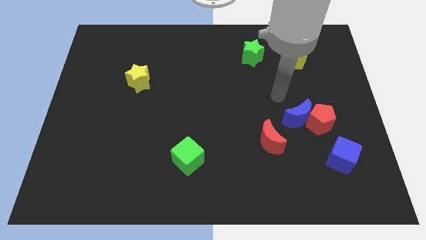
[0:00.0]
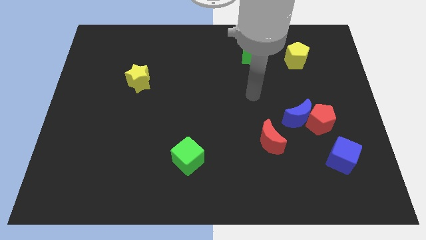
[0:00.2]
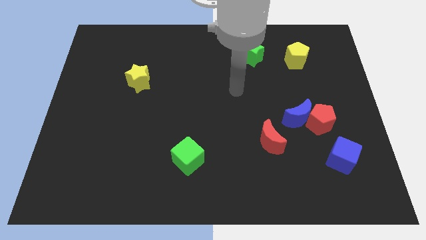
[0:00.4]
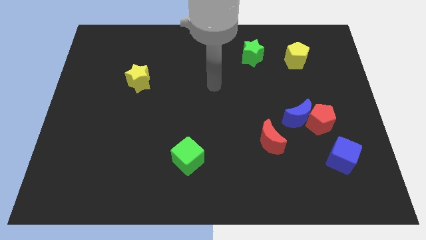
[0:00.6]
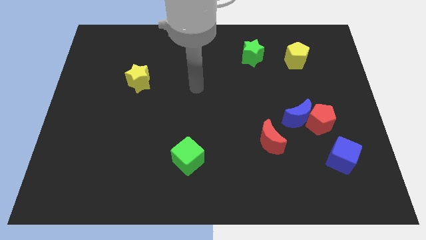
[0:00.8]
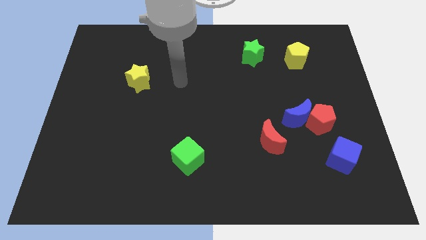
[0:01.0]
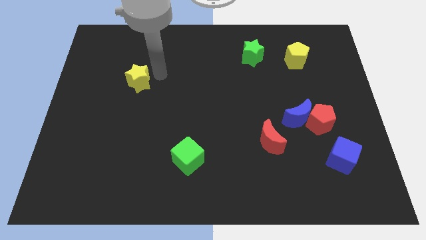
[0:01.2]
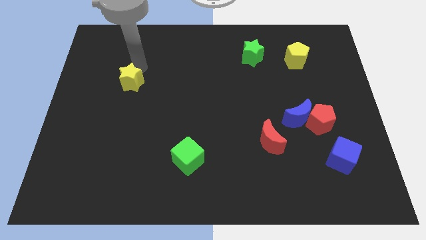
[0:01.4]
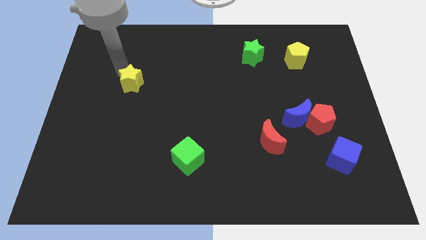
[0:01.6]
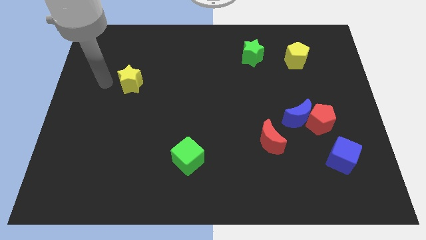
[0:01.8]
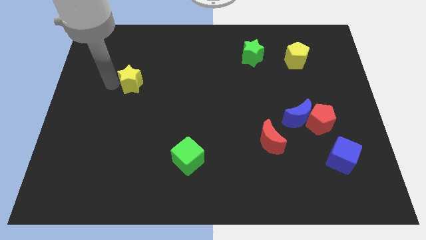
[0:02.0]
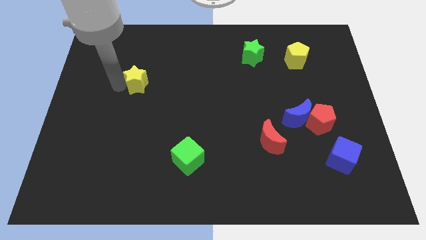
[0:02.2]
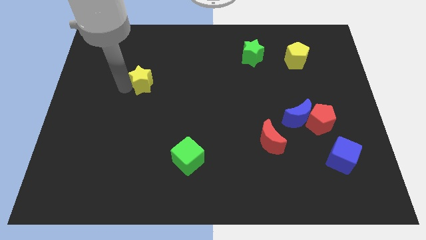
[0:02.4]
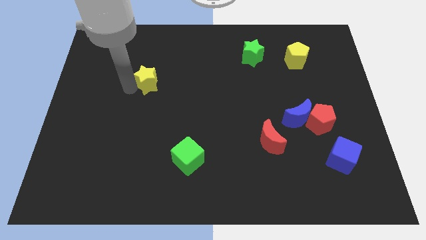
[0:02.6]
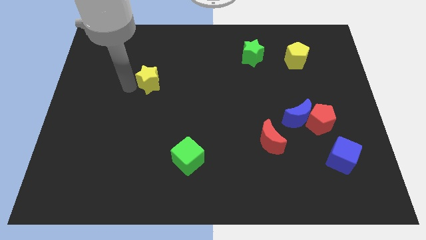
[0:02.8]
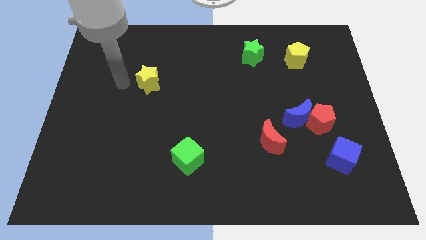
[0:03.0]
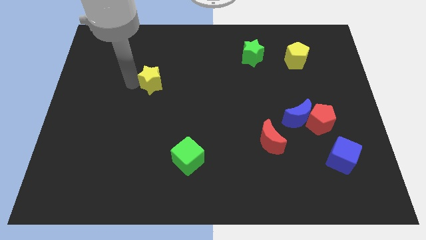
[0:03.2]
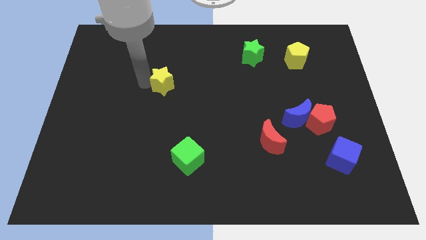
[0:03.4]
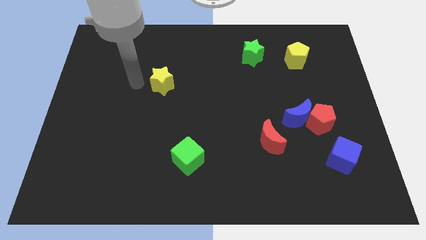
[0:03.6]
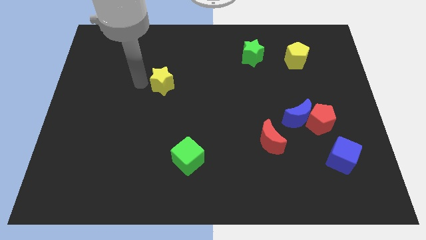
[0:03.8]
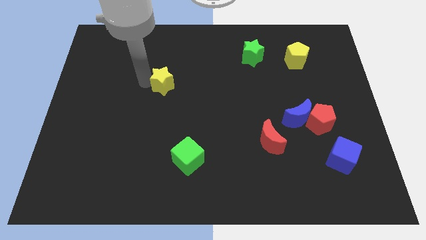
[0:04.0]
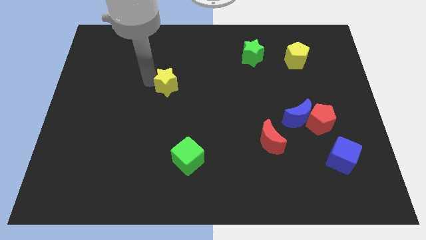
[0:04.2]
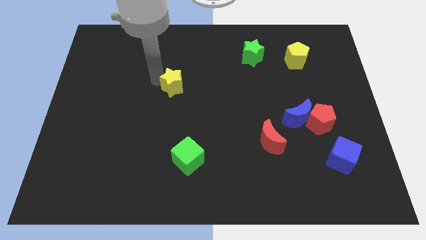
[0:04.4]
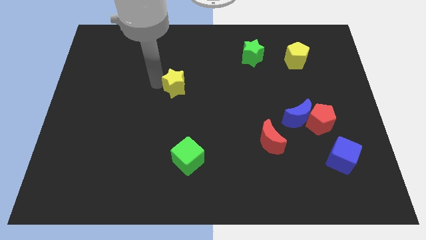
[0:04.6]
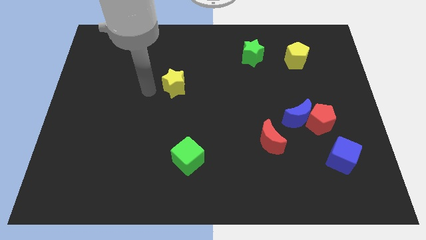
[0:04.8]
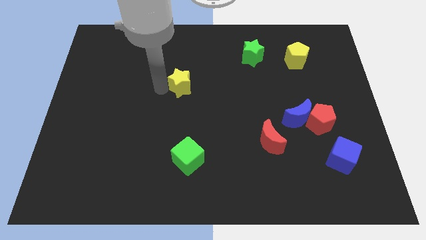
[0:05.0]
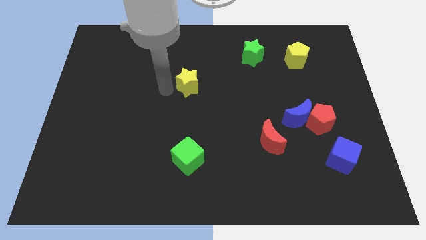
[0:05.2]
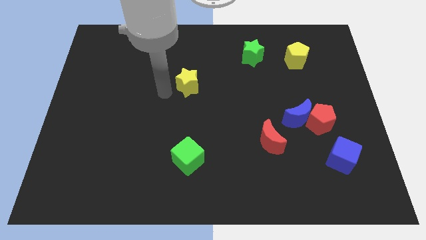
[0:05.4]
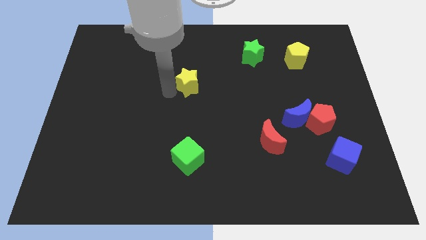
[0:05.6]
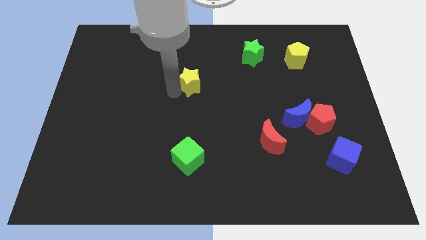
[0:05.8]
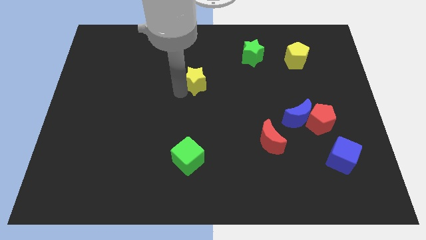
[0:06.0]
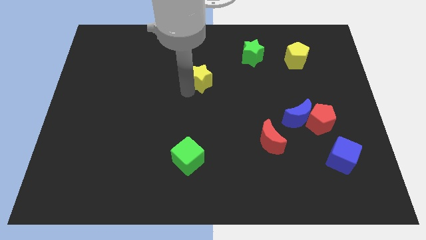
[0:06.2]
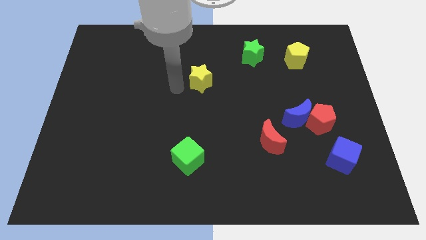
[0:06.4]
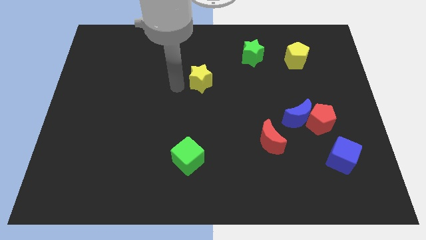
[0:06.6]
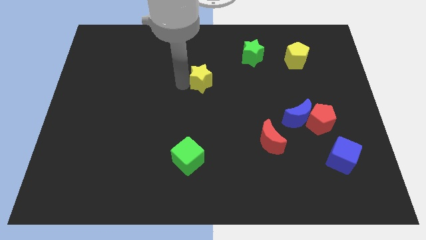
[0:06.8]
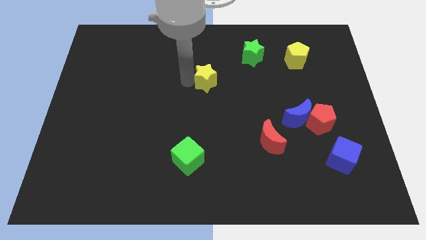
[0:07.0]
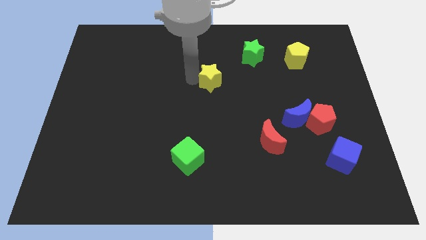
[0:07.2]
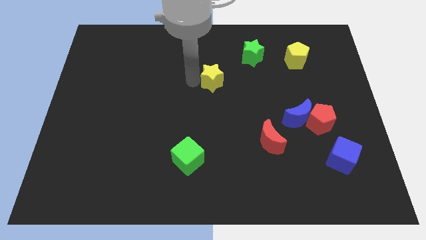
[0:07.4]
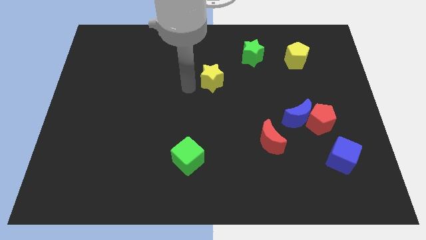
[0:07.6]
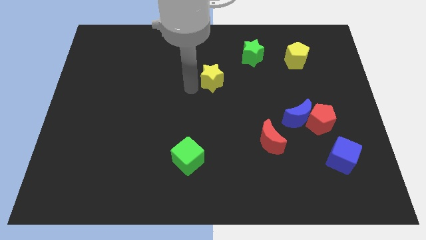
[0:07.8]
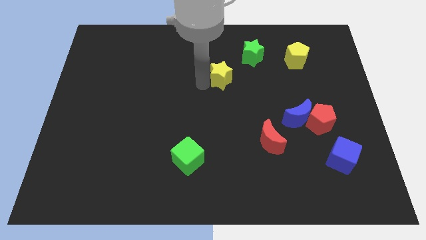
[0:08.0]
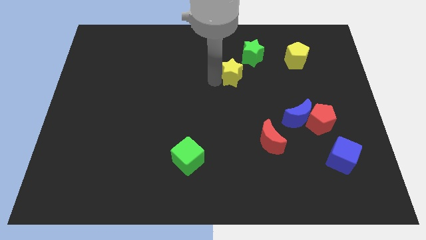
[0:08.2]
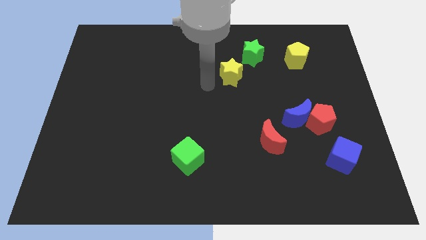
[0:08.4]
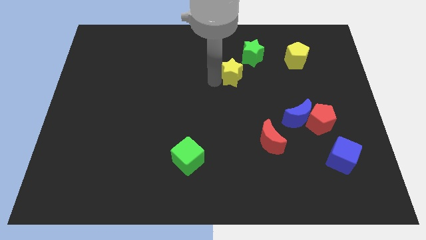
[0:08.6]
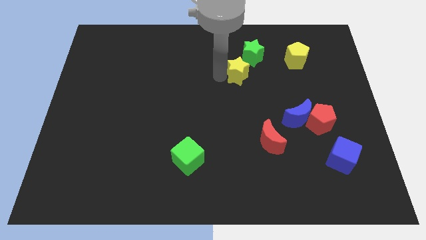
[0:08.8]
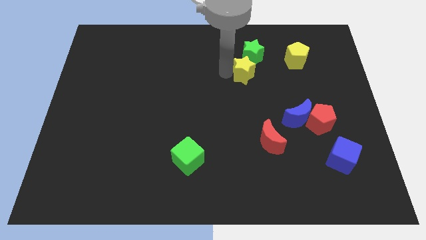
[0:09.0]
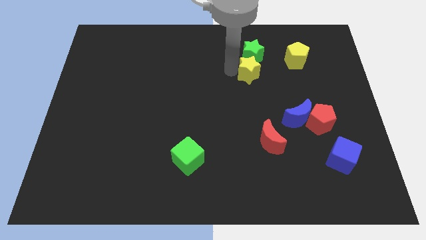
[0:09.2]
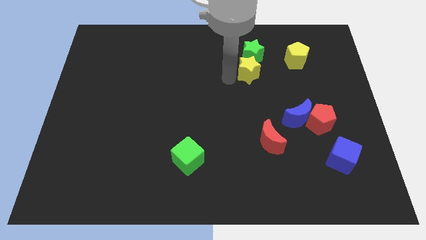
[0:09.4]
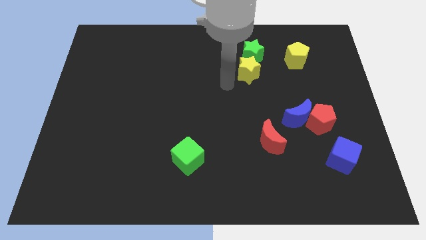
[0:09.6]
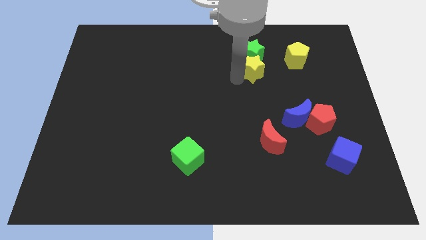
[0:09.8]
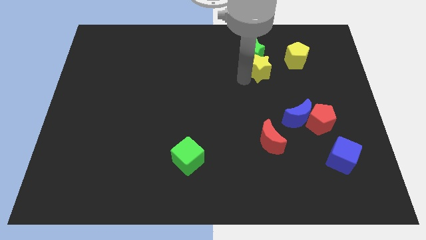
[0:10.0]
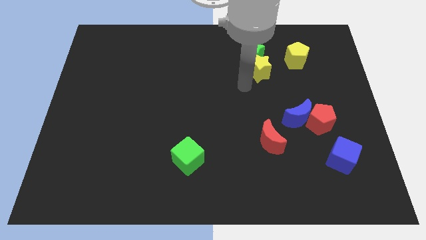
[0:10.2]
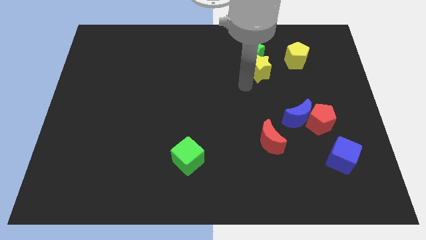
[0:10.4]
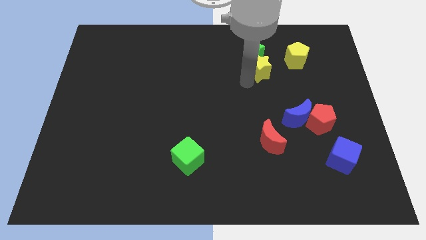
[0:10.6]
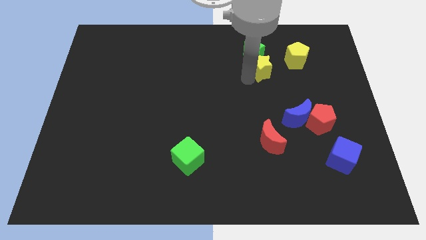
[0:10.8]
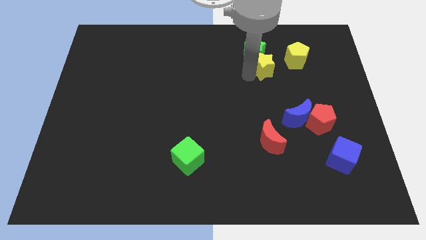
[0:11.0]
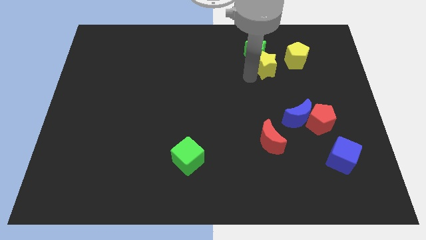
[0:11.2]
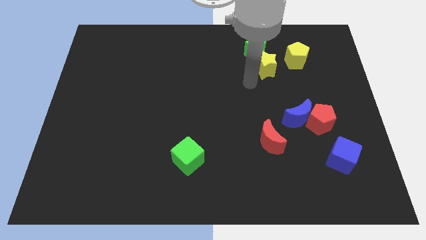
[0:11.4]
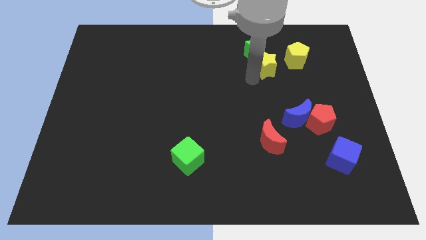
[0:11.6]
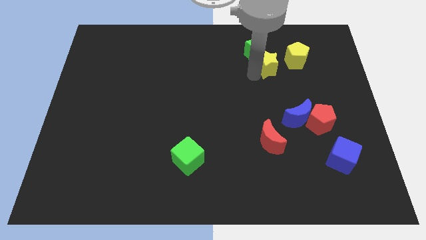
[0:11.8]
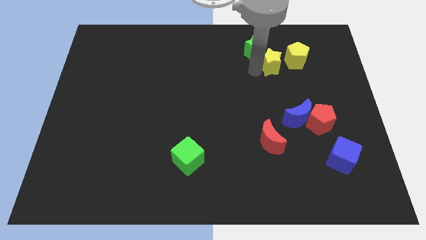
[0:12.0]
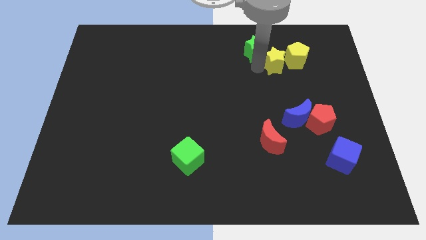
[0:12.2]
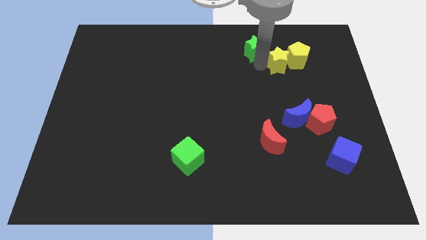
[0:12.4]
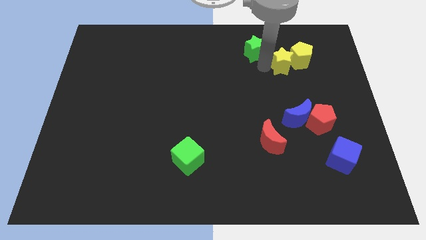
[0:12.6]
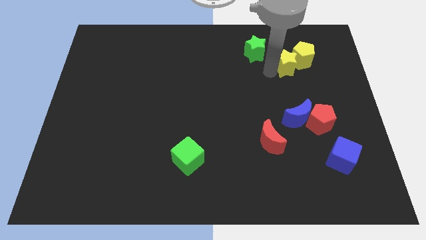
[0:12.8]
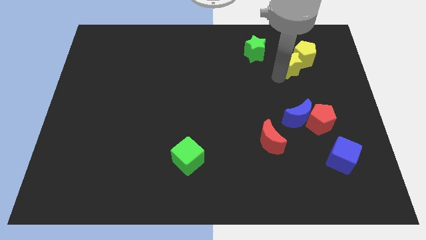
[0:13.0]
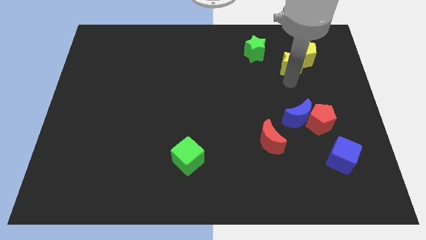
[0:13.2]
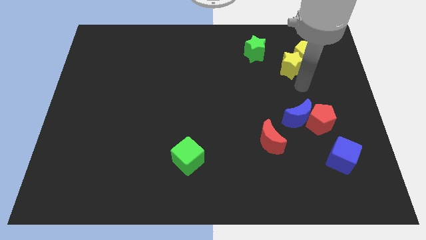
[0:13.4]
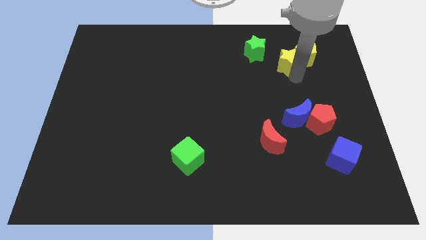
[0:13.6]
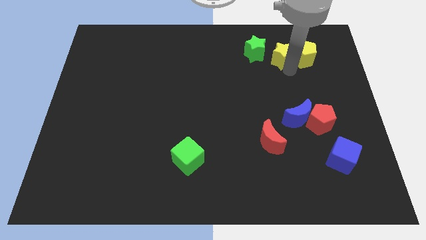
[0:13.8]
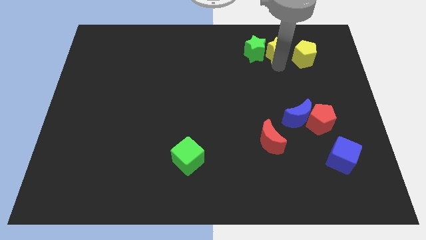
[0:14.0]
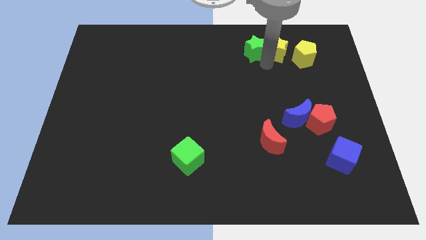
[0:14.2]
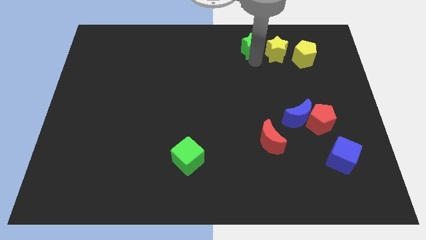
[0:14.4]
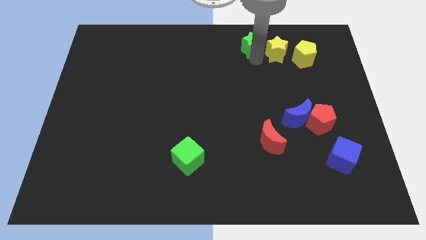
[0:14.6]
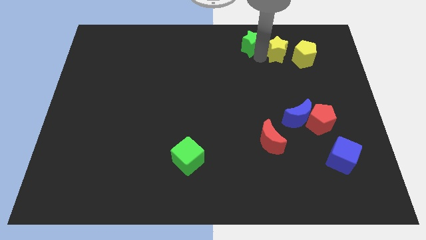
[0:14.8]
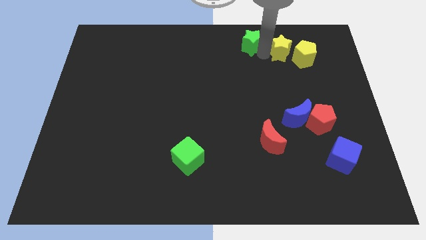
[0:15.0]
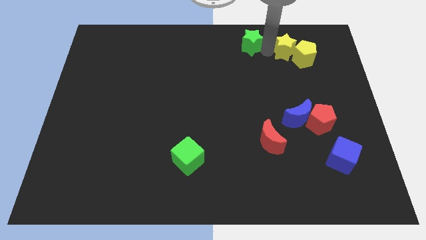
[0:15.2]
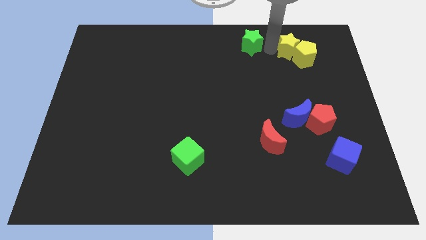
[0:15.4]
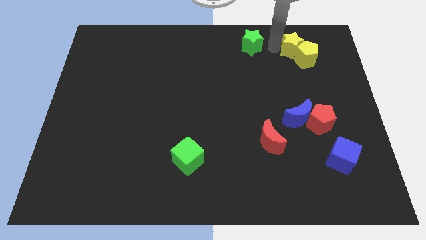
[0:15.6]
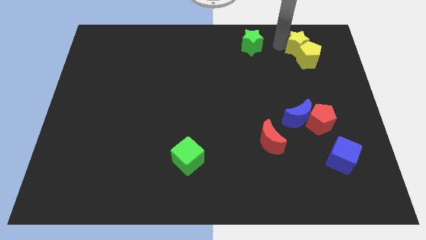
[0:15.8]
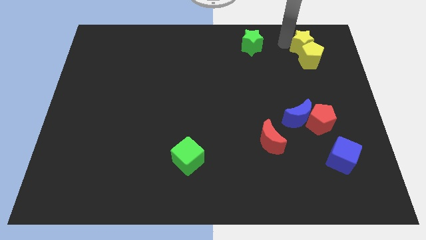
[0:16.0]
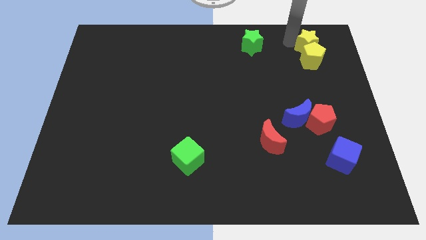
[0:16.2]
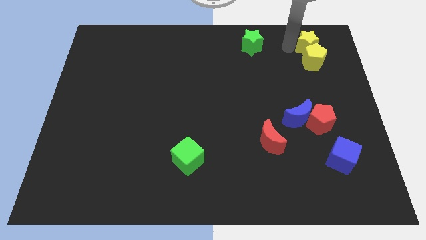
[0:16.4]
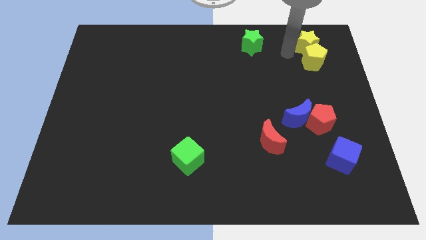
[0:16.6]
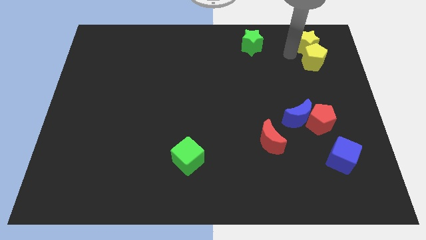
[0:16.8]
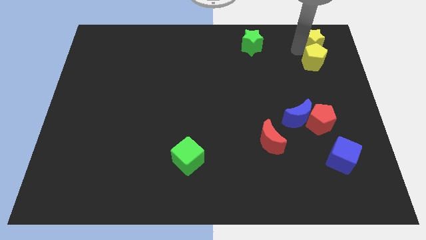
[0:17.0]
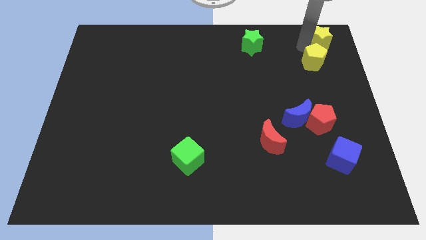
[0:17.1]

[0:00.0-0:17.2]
push the yellow star to the upper right corner
